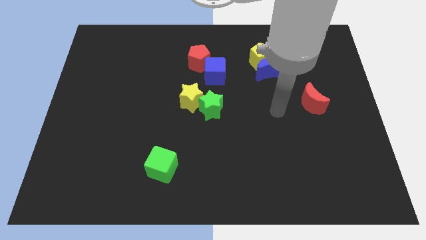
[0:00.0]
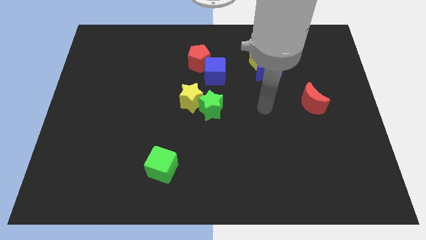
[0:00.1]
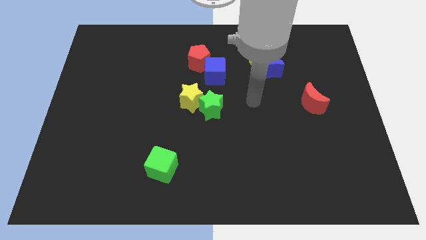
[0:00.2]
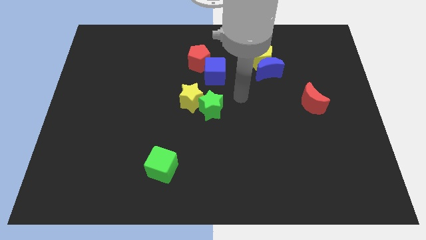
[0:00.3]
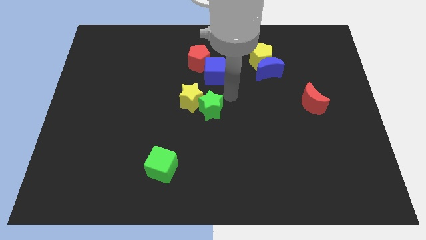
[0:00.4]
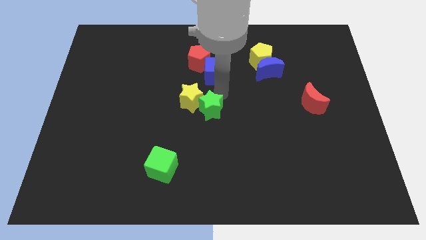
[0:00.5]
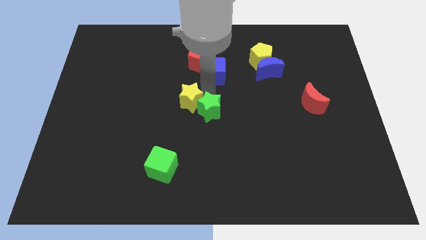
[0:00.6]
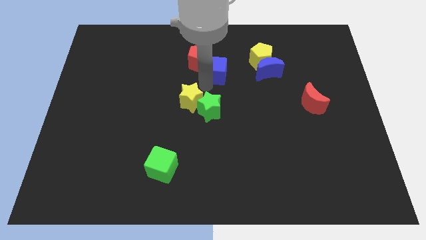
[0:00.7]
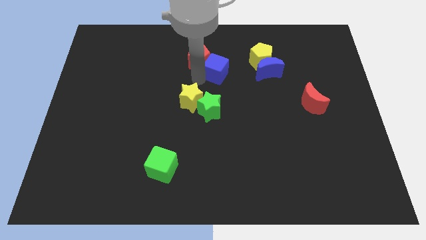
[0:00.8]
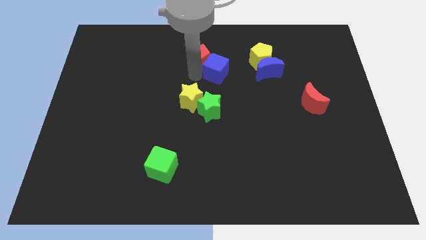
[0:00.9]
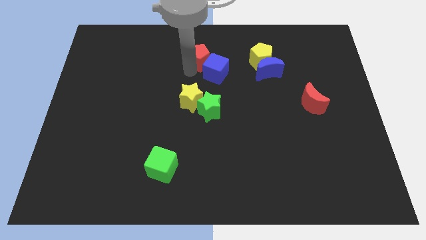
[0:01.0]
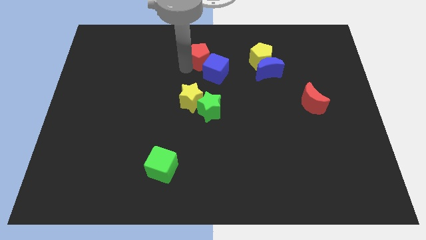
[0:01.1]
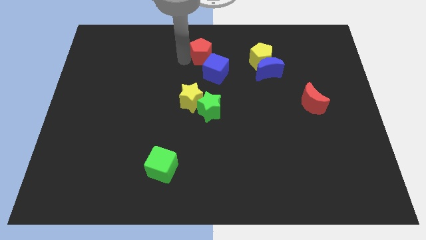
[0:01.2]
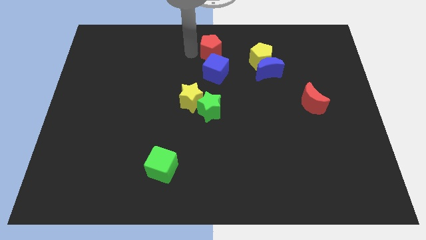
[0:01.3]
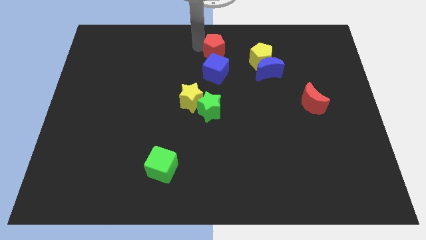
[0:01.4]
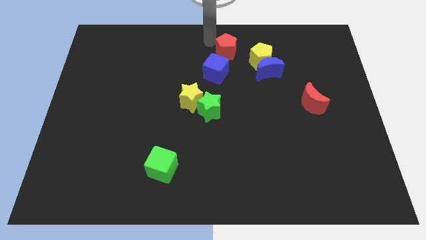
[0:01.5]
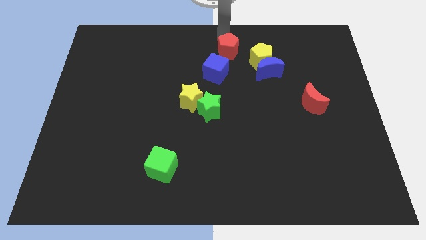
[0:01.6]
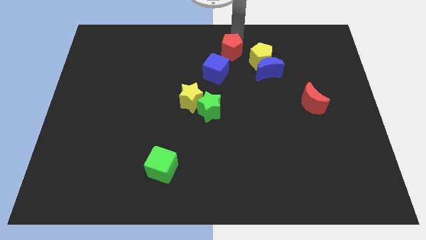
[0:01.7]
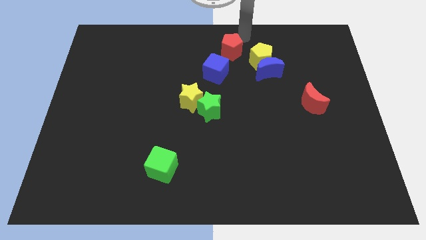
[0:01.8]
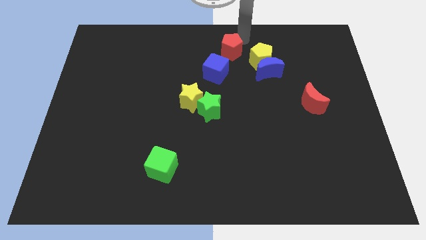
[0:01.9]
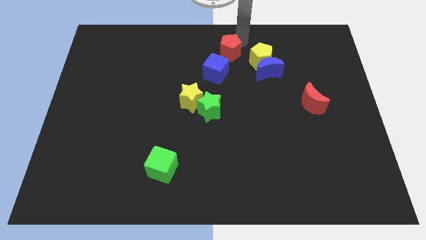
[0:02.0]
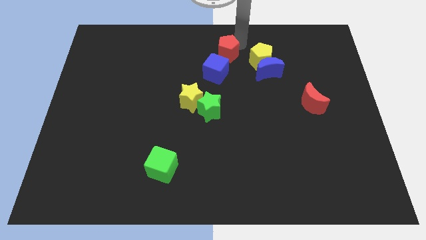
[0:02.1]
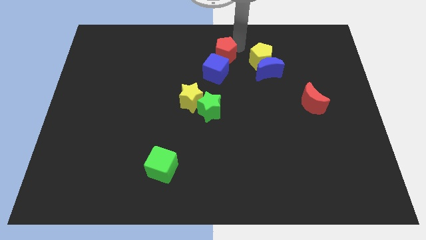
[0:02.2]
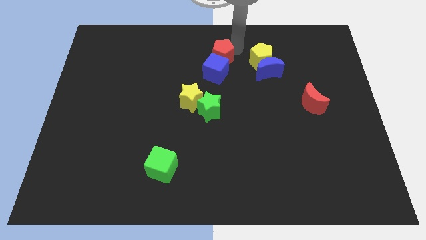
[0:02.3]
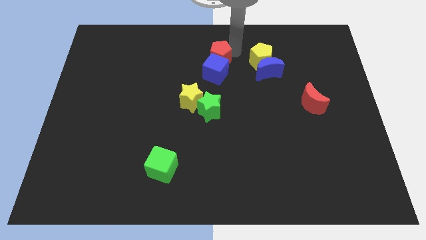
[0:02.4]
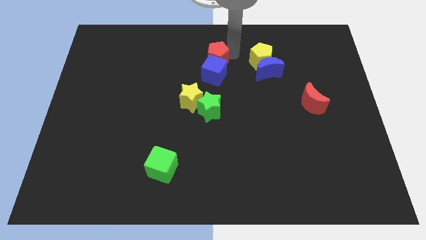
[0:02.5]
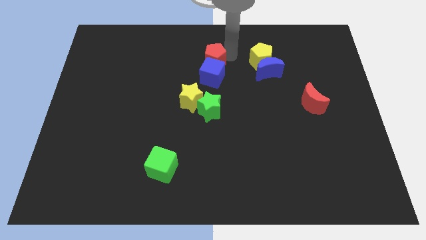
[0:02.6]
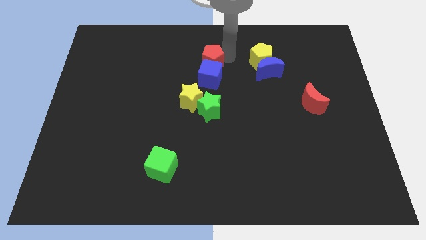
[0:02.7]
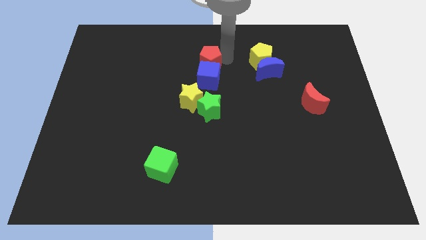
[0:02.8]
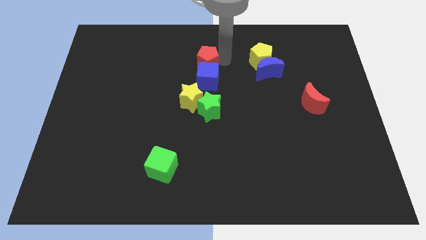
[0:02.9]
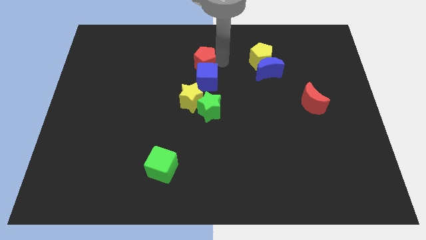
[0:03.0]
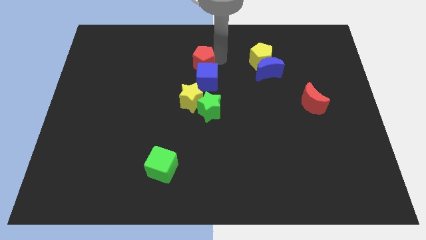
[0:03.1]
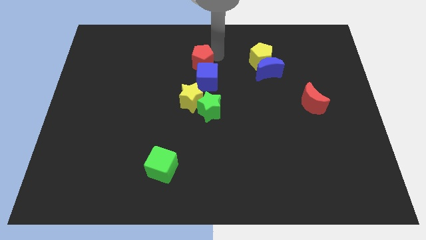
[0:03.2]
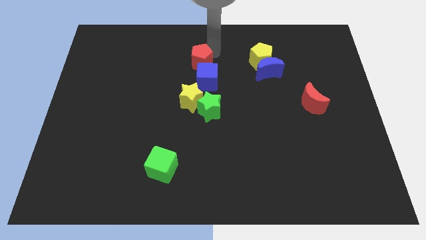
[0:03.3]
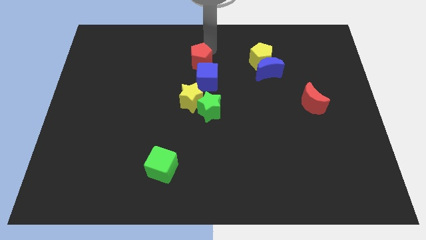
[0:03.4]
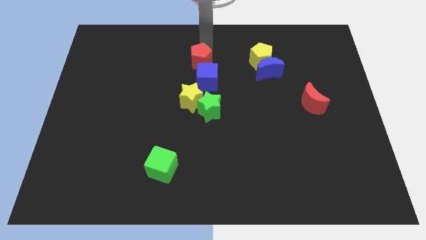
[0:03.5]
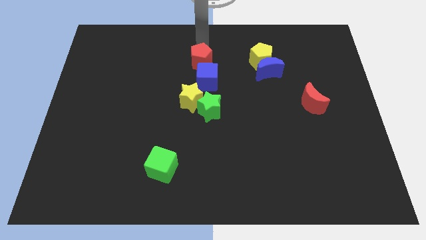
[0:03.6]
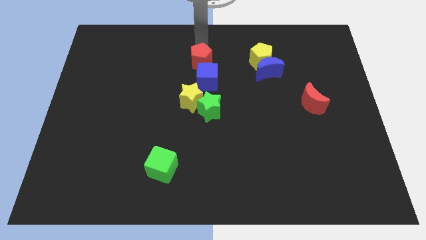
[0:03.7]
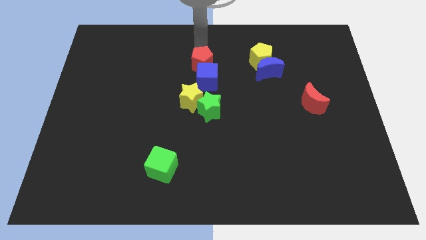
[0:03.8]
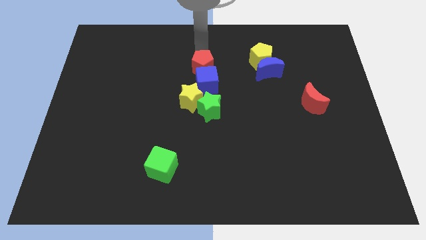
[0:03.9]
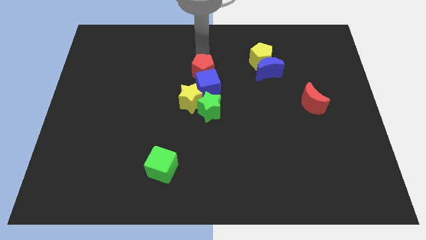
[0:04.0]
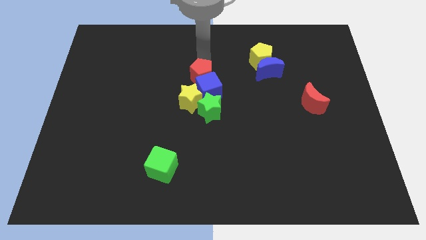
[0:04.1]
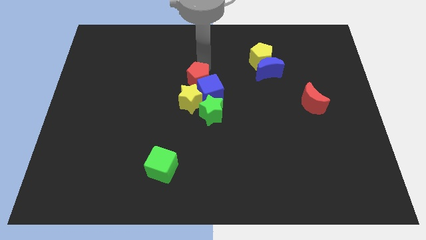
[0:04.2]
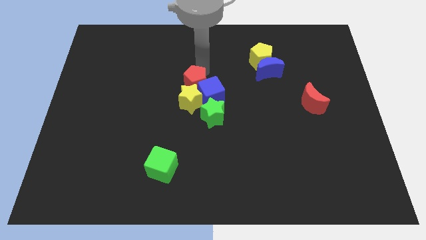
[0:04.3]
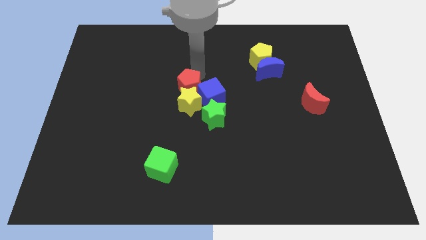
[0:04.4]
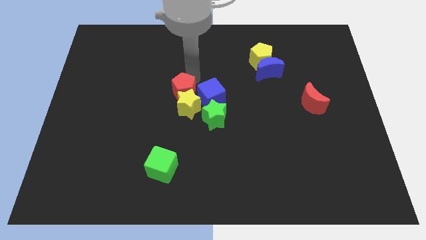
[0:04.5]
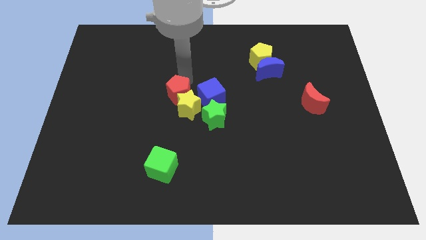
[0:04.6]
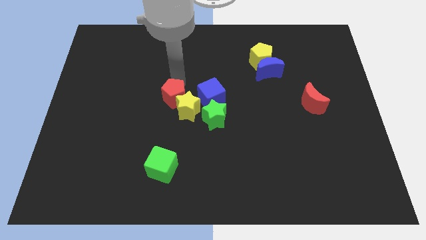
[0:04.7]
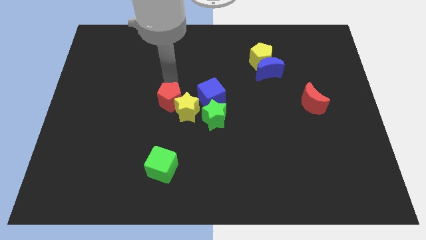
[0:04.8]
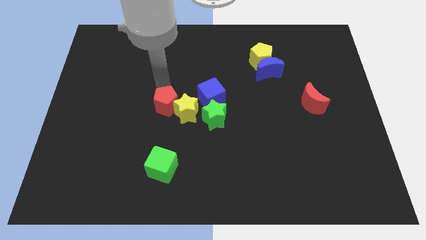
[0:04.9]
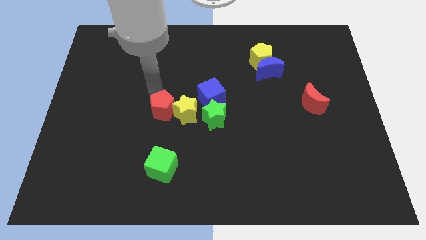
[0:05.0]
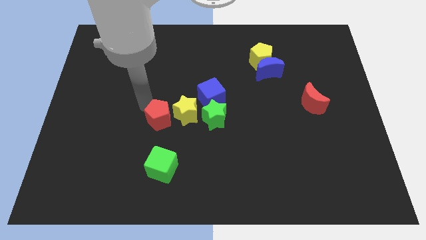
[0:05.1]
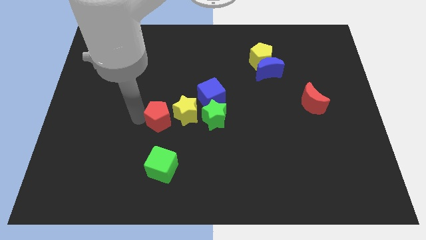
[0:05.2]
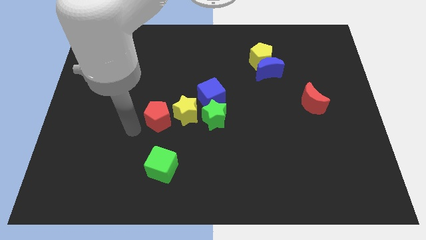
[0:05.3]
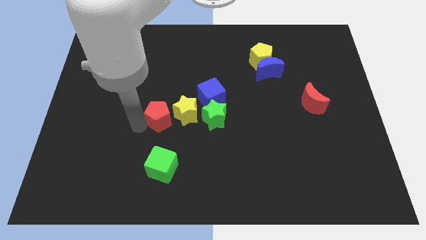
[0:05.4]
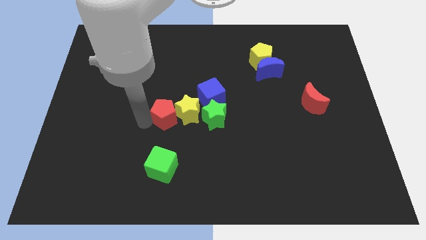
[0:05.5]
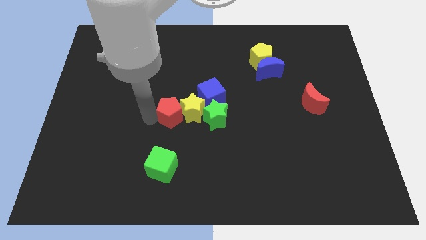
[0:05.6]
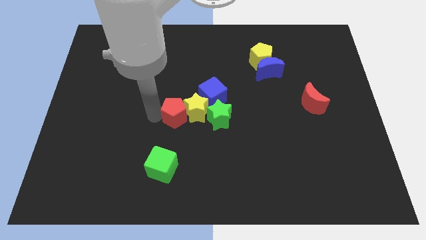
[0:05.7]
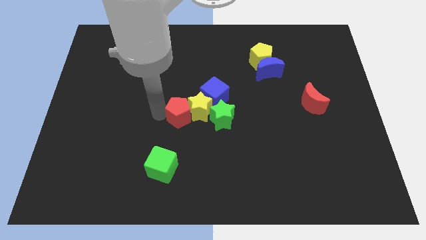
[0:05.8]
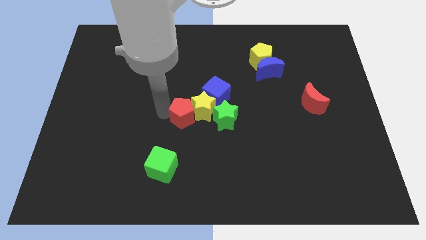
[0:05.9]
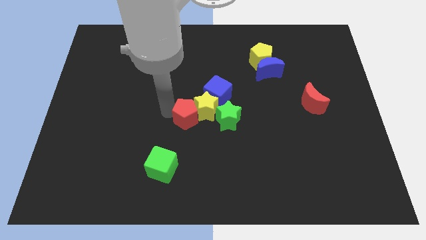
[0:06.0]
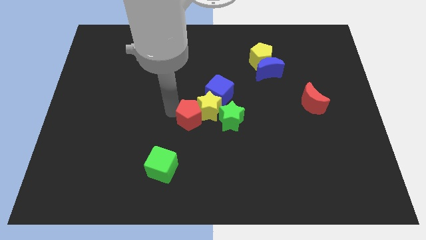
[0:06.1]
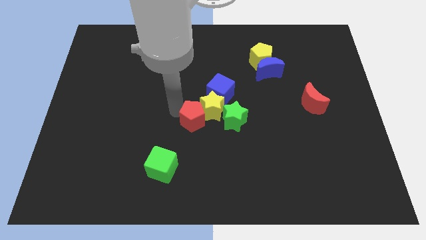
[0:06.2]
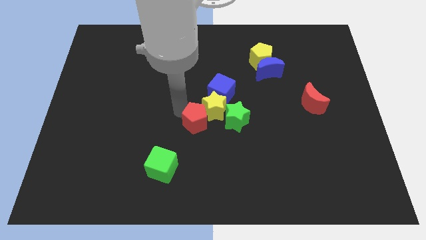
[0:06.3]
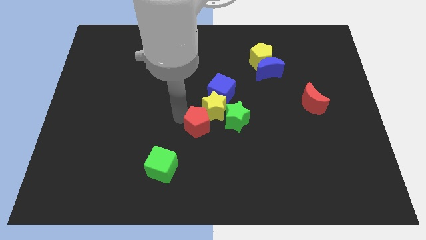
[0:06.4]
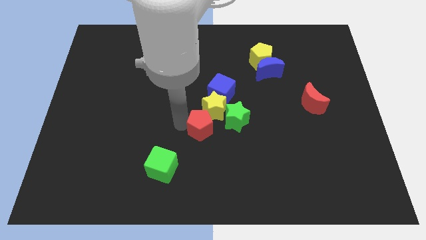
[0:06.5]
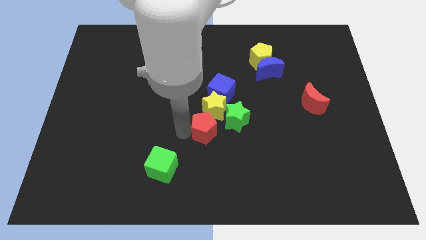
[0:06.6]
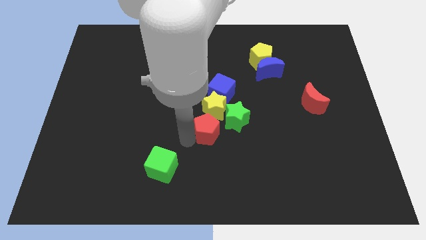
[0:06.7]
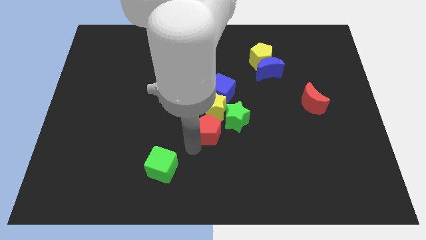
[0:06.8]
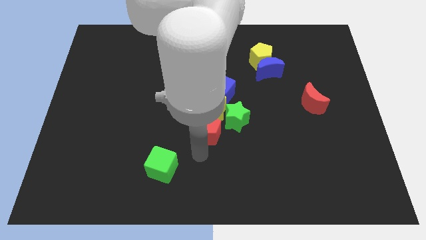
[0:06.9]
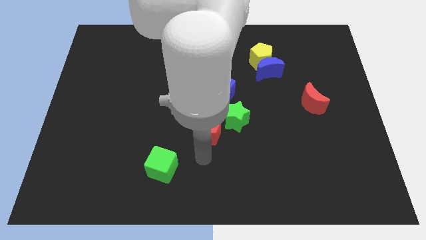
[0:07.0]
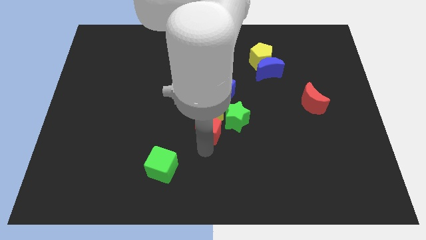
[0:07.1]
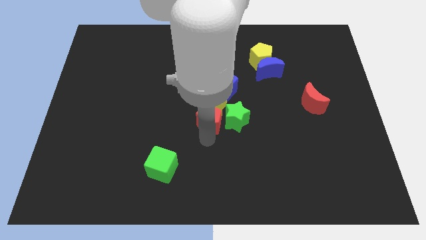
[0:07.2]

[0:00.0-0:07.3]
push the red pentagon next to the green star
